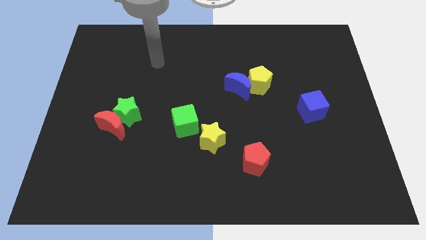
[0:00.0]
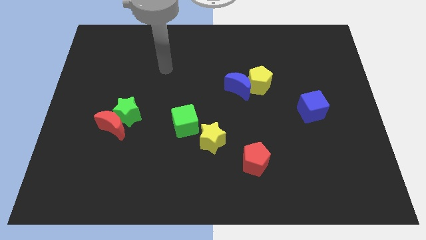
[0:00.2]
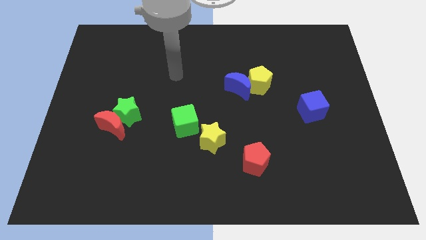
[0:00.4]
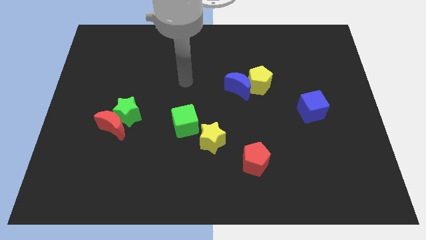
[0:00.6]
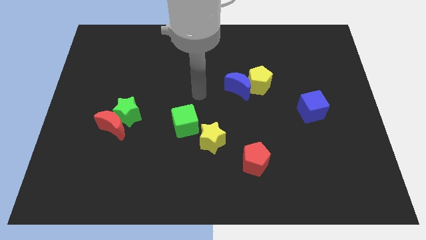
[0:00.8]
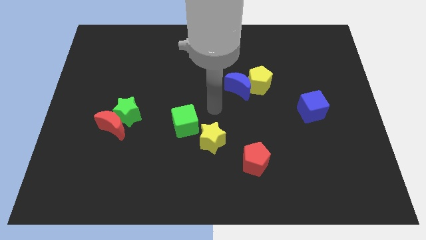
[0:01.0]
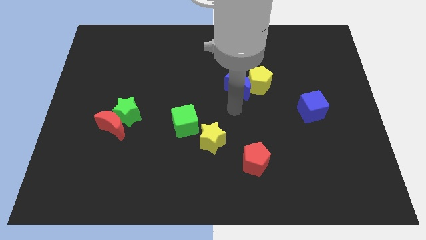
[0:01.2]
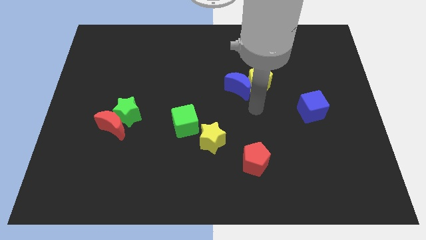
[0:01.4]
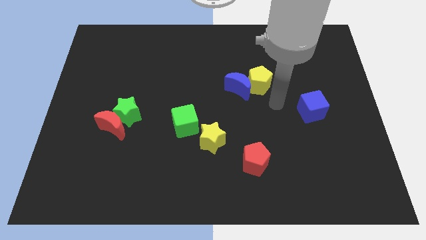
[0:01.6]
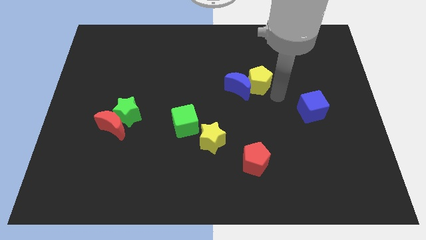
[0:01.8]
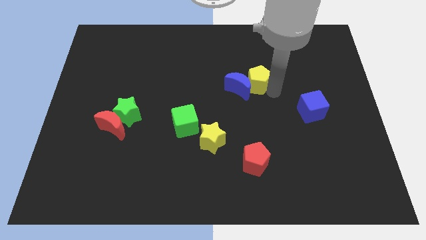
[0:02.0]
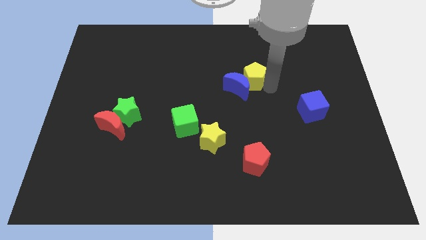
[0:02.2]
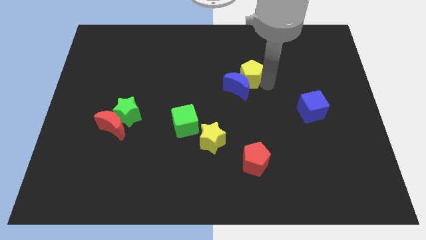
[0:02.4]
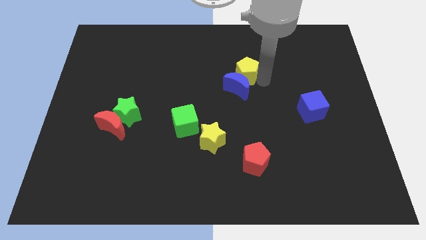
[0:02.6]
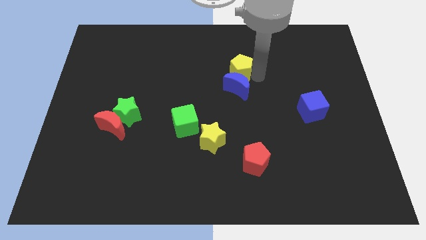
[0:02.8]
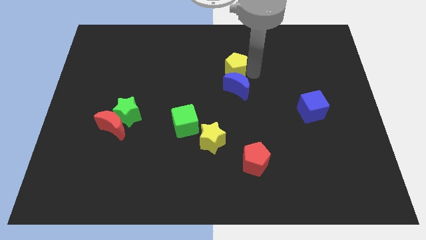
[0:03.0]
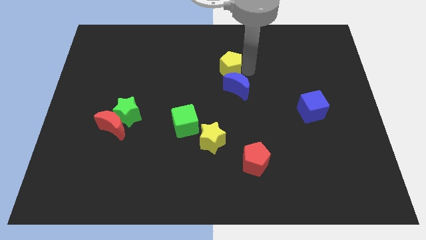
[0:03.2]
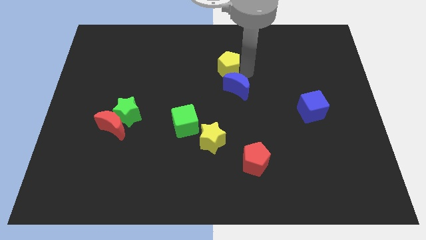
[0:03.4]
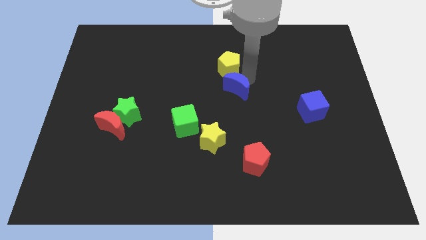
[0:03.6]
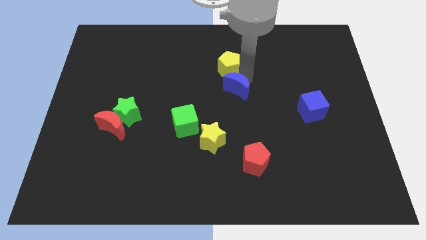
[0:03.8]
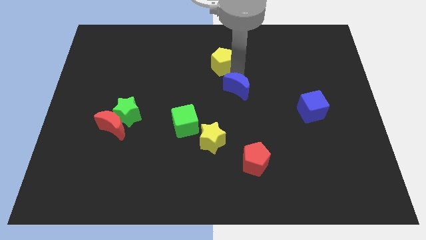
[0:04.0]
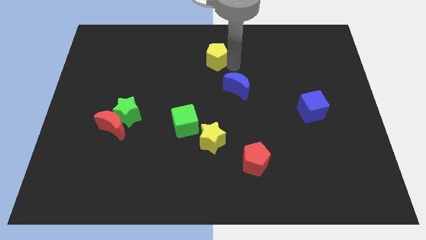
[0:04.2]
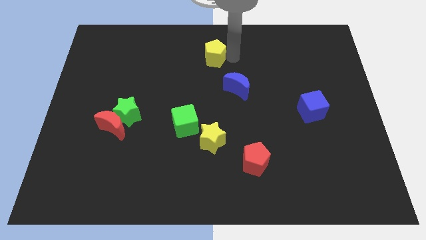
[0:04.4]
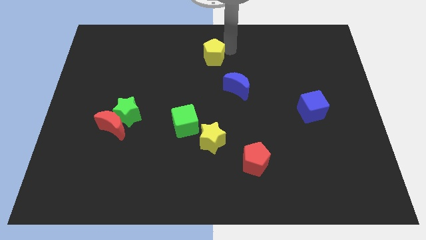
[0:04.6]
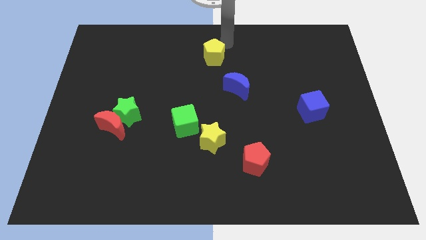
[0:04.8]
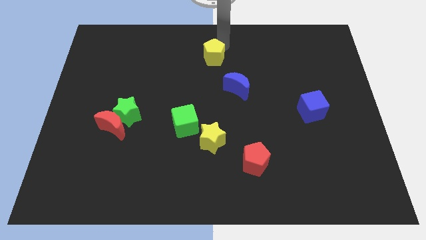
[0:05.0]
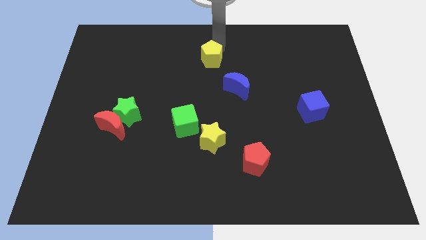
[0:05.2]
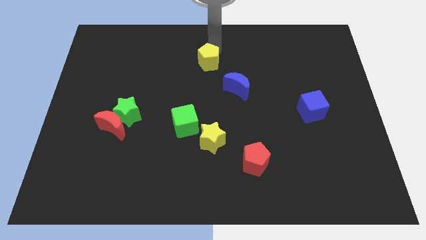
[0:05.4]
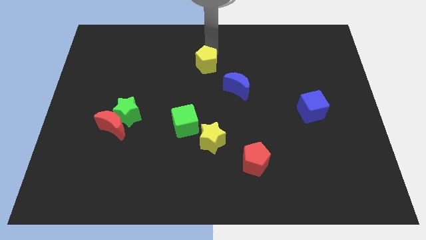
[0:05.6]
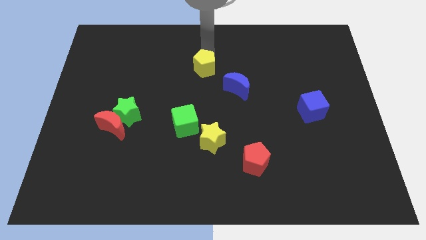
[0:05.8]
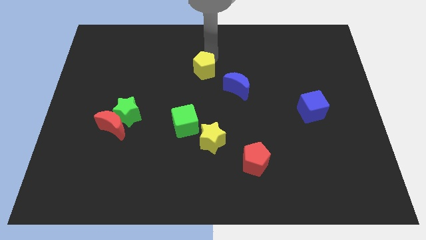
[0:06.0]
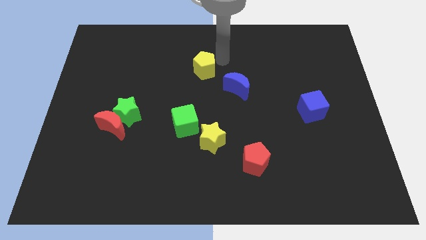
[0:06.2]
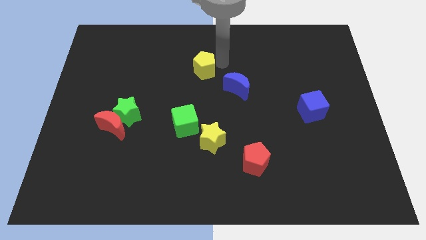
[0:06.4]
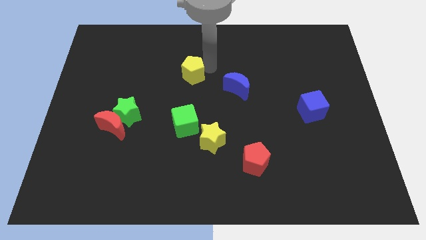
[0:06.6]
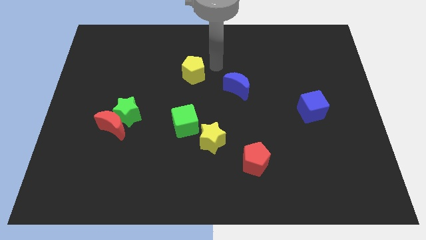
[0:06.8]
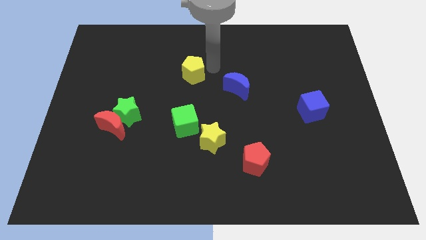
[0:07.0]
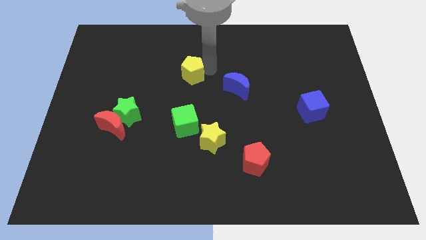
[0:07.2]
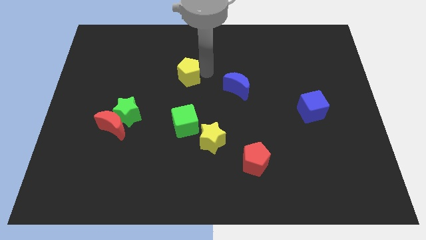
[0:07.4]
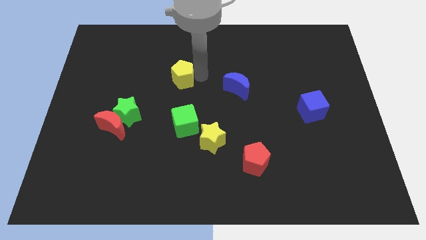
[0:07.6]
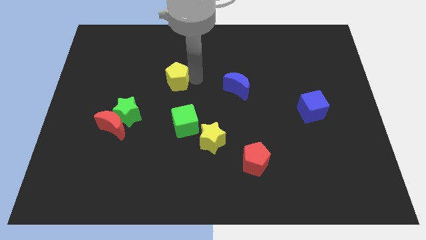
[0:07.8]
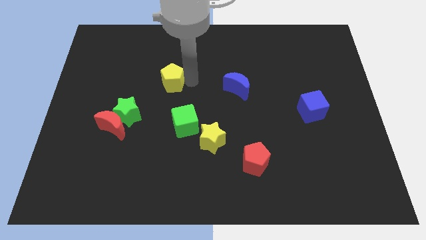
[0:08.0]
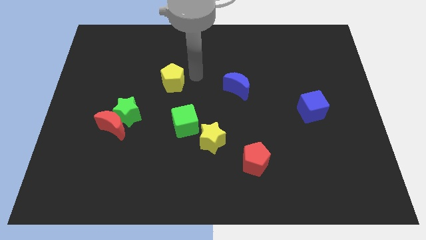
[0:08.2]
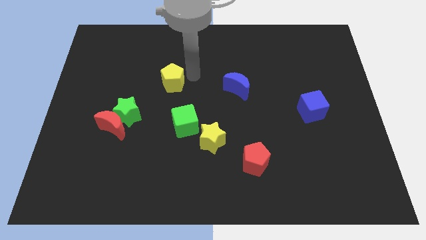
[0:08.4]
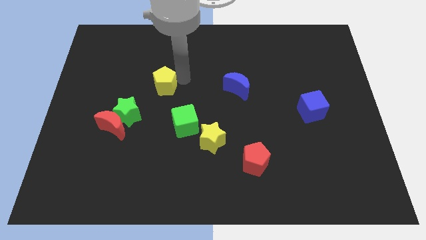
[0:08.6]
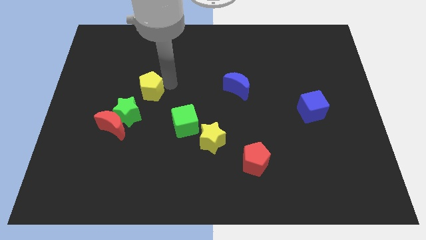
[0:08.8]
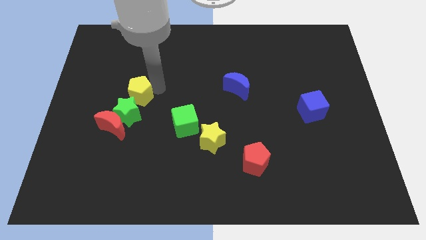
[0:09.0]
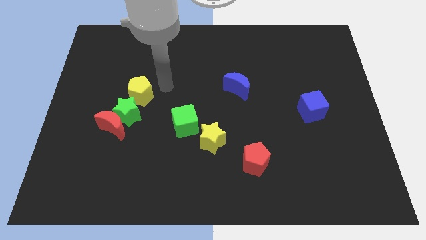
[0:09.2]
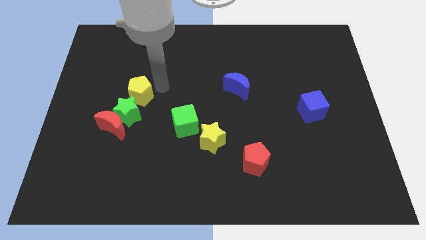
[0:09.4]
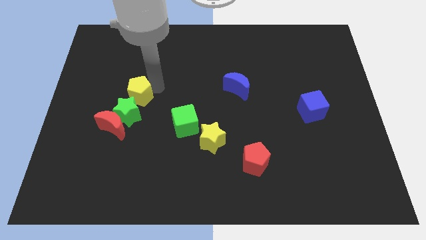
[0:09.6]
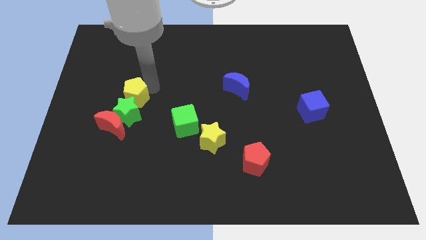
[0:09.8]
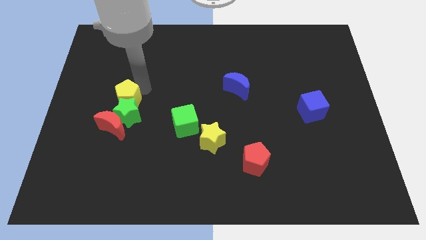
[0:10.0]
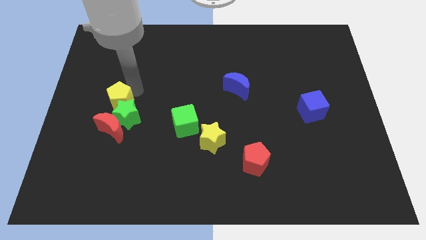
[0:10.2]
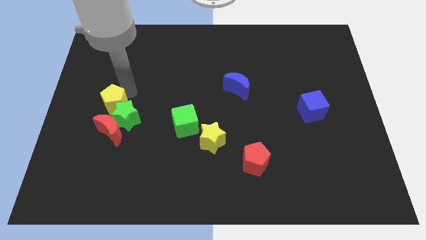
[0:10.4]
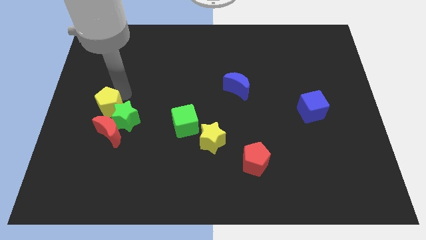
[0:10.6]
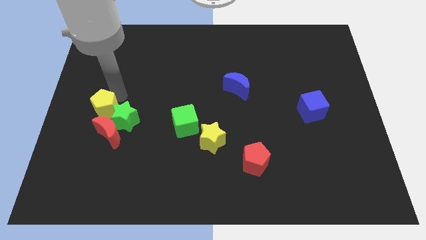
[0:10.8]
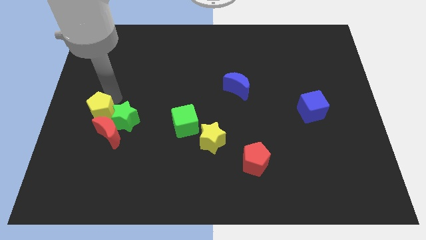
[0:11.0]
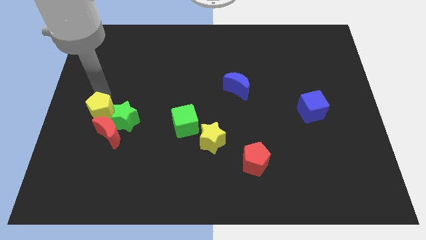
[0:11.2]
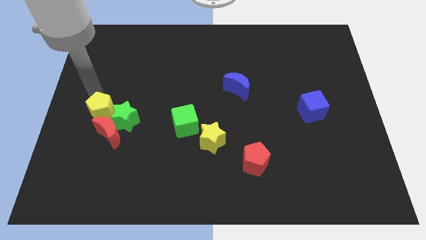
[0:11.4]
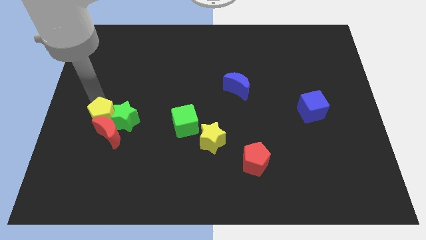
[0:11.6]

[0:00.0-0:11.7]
put the yellow pentagon to the red moon
